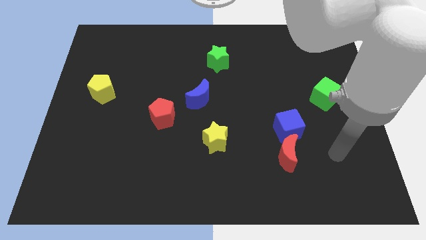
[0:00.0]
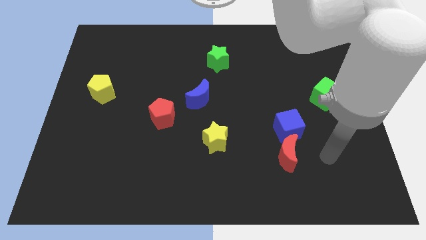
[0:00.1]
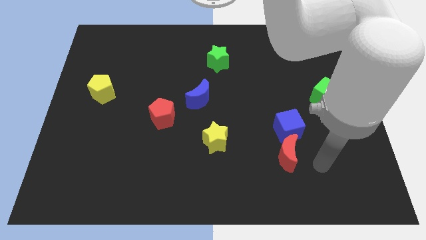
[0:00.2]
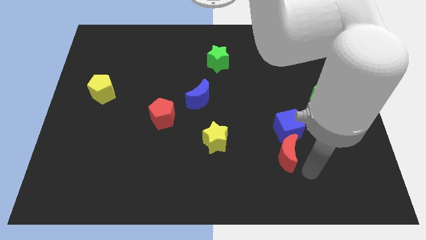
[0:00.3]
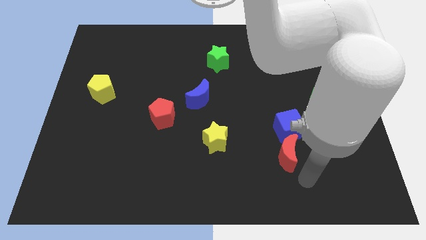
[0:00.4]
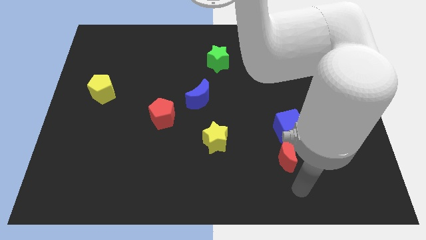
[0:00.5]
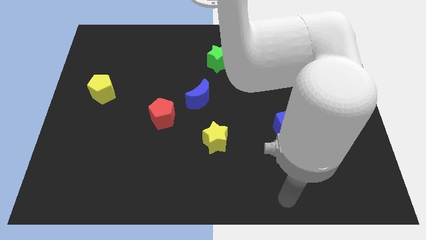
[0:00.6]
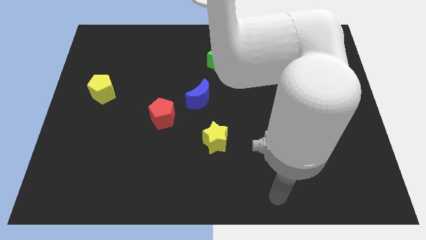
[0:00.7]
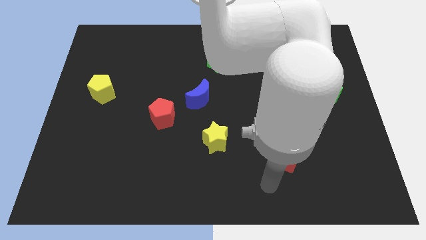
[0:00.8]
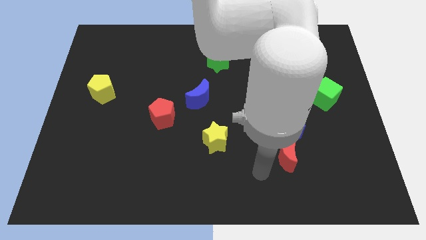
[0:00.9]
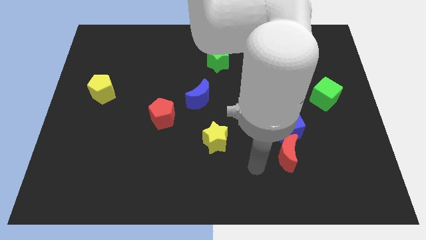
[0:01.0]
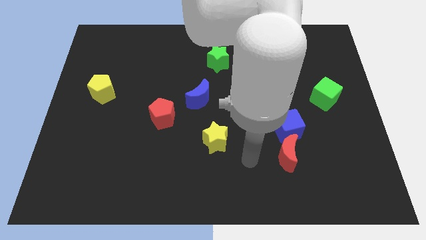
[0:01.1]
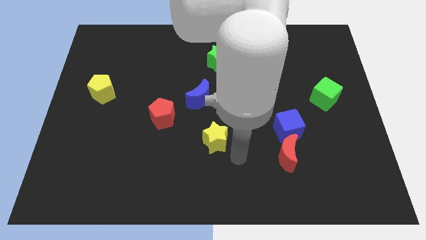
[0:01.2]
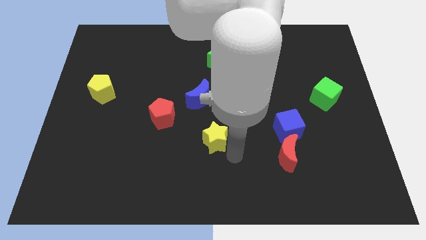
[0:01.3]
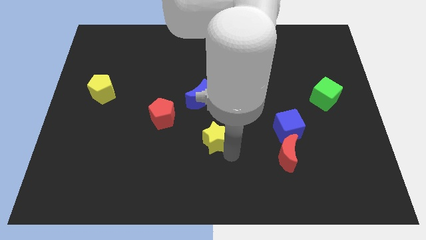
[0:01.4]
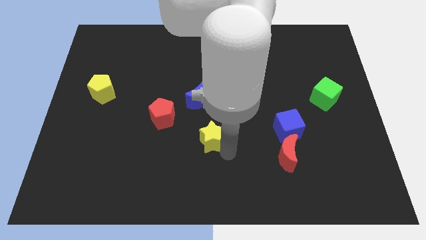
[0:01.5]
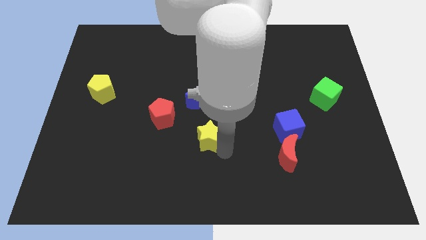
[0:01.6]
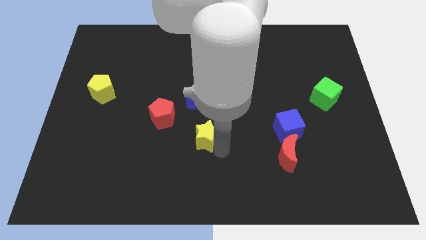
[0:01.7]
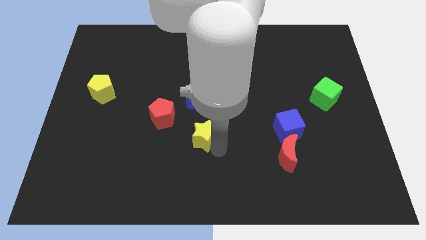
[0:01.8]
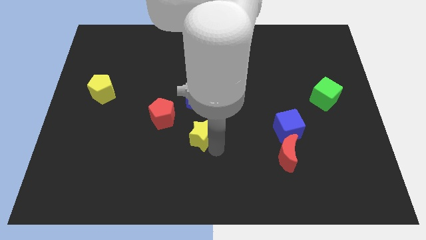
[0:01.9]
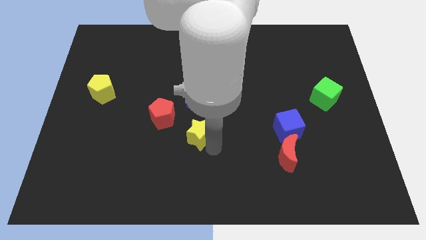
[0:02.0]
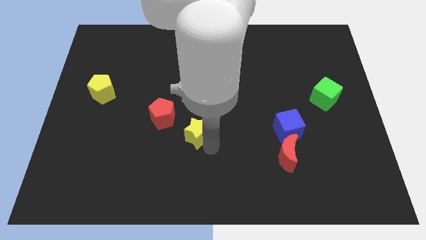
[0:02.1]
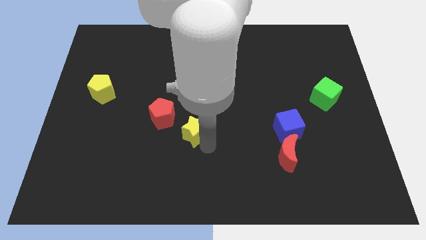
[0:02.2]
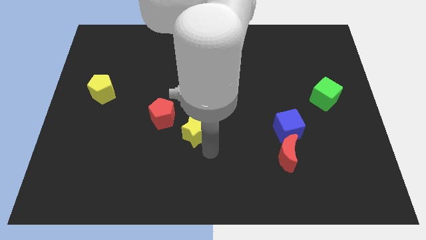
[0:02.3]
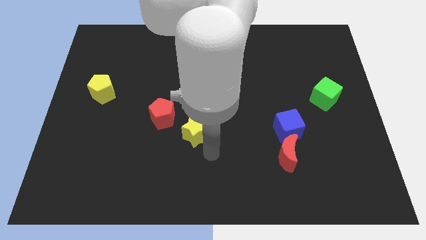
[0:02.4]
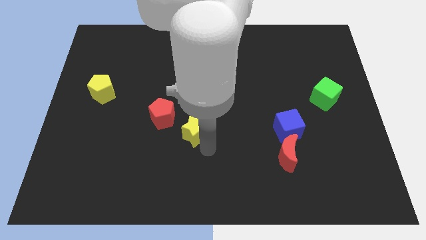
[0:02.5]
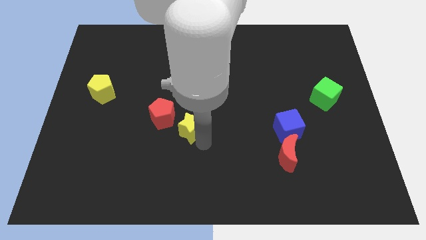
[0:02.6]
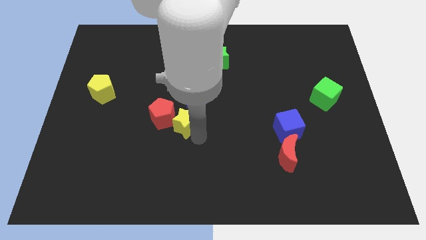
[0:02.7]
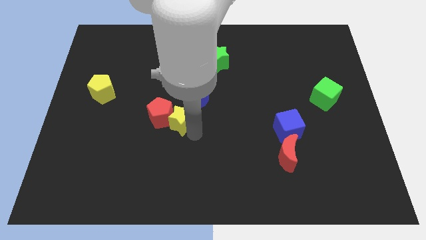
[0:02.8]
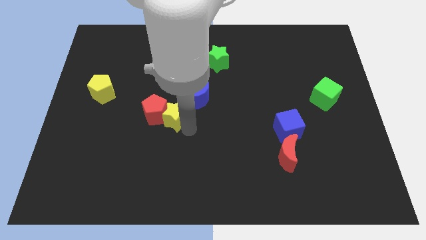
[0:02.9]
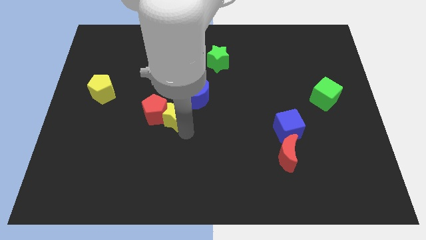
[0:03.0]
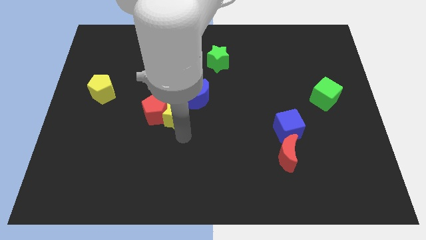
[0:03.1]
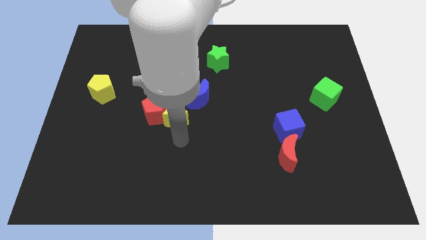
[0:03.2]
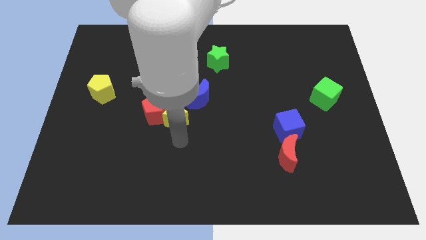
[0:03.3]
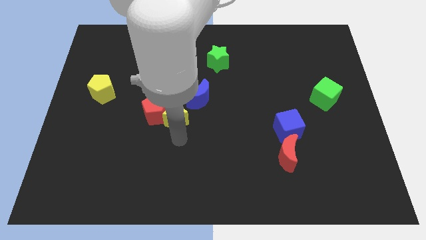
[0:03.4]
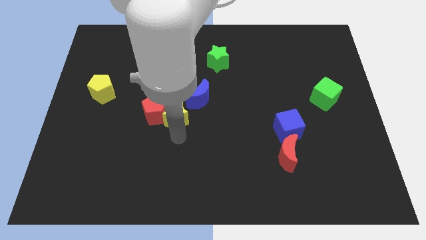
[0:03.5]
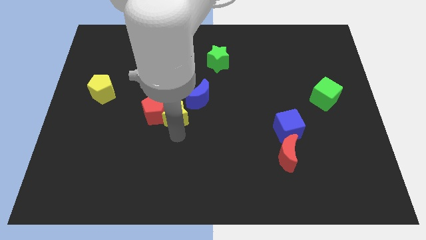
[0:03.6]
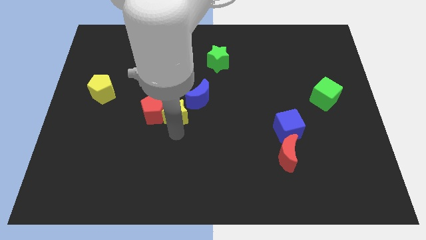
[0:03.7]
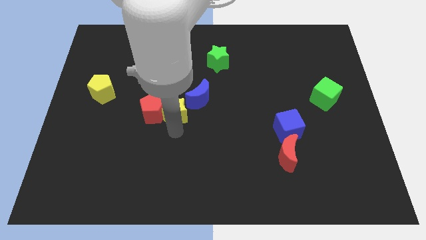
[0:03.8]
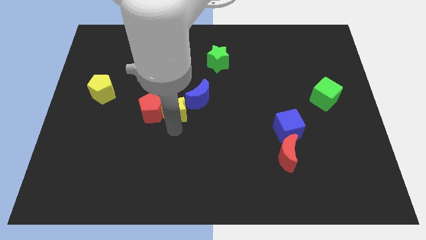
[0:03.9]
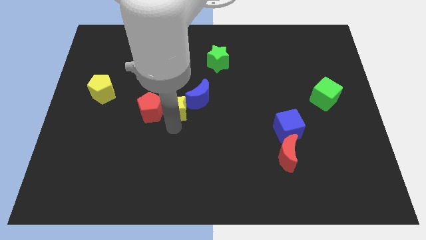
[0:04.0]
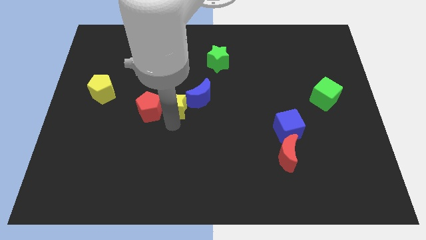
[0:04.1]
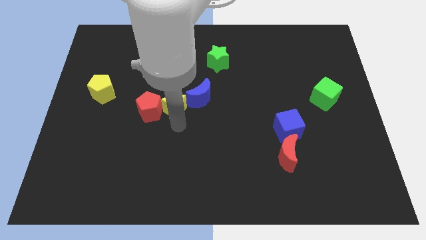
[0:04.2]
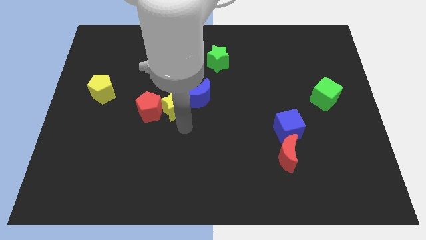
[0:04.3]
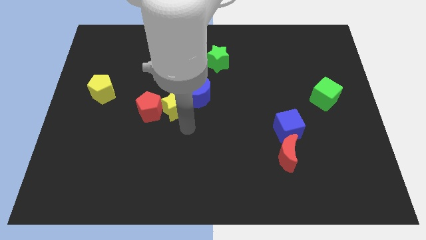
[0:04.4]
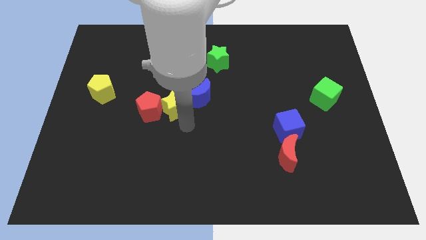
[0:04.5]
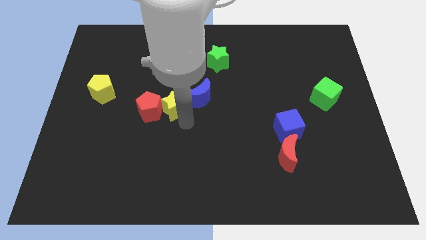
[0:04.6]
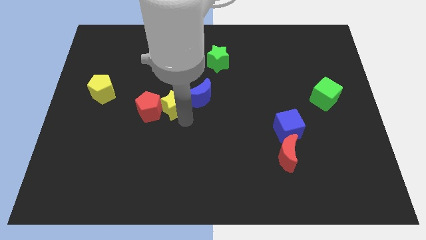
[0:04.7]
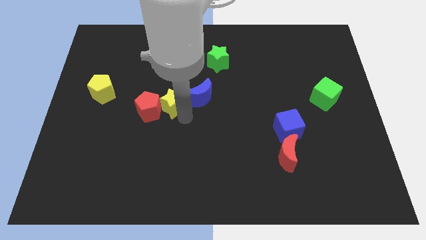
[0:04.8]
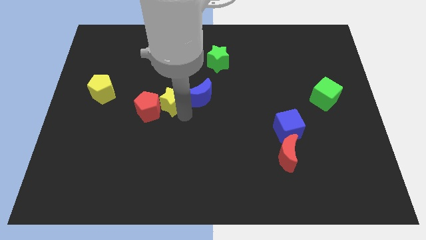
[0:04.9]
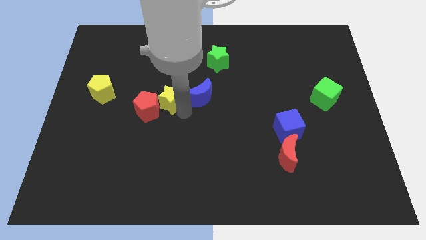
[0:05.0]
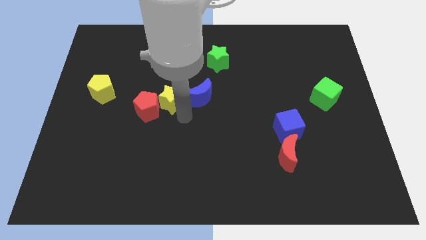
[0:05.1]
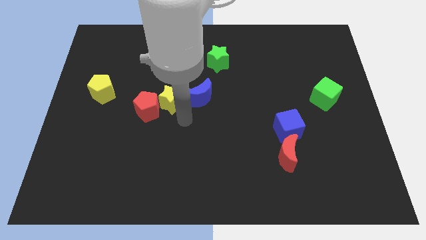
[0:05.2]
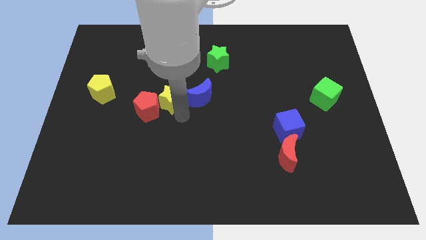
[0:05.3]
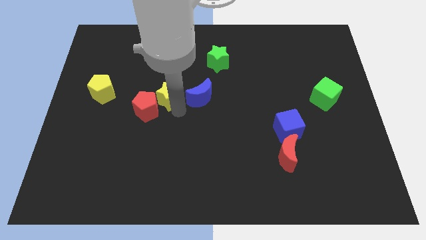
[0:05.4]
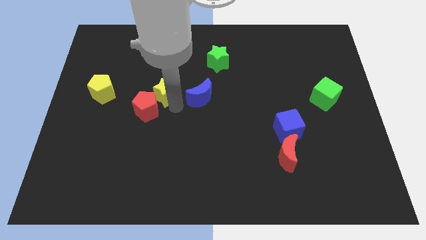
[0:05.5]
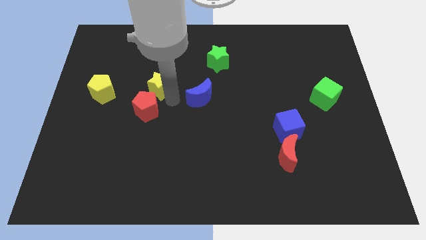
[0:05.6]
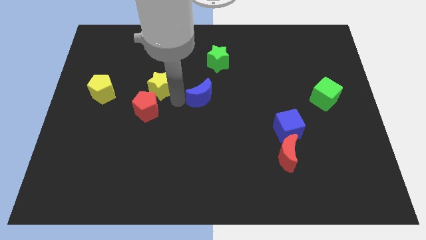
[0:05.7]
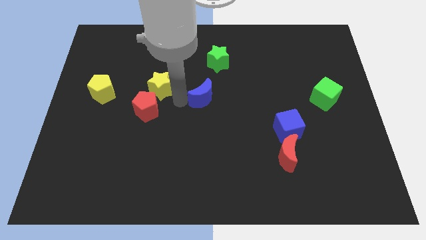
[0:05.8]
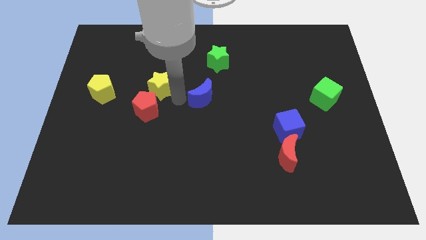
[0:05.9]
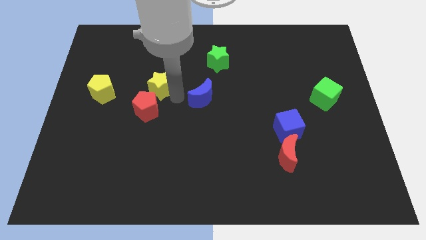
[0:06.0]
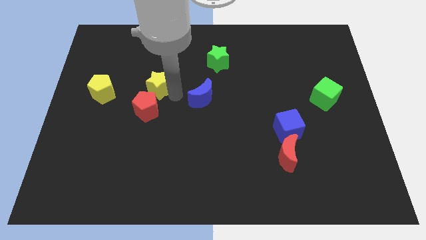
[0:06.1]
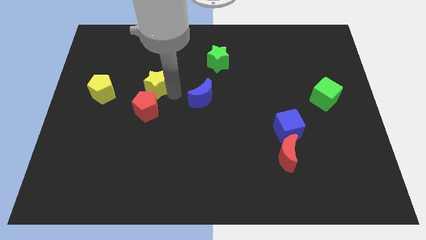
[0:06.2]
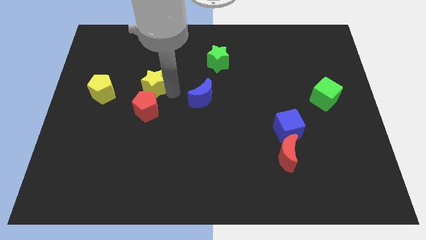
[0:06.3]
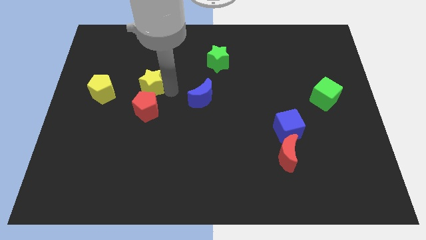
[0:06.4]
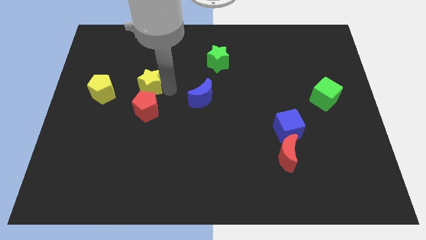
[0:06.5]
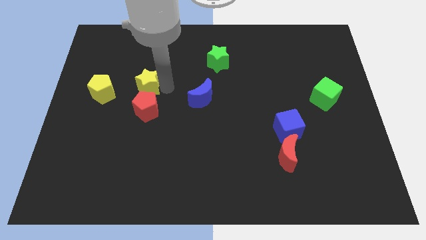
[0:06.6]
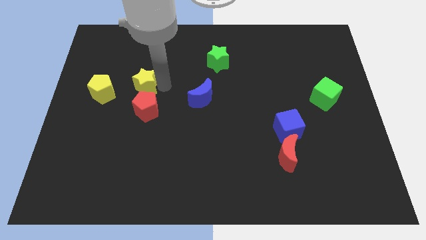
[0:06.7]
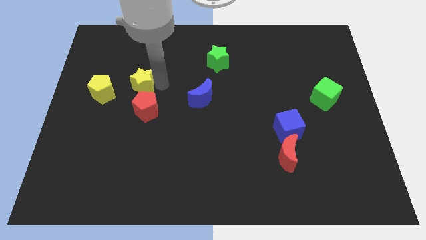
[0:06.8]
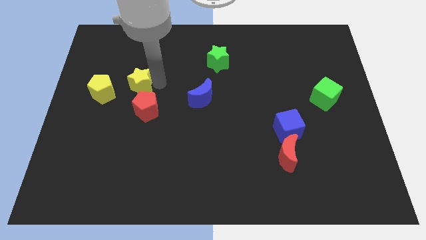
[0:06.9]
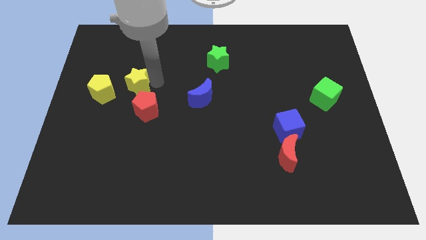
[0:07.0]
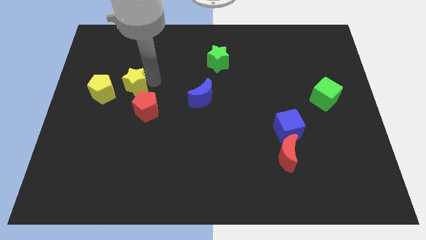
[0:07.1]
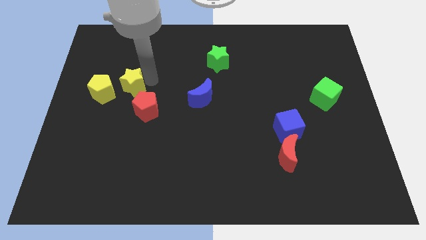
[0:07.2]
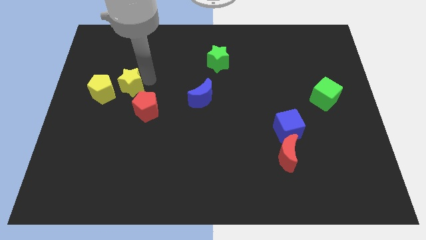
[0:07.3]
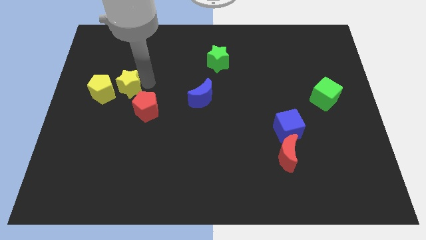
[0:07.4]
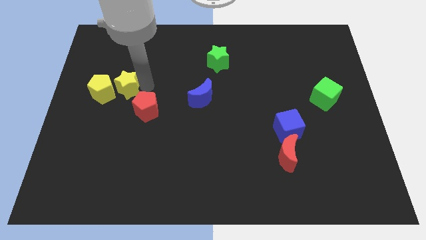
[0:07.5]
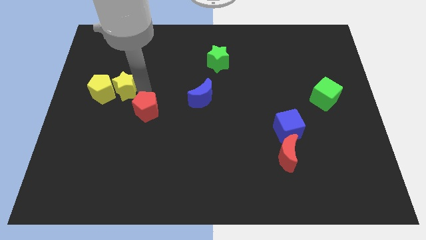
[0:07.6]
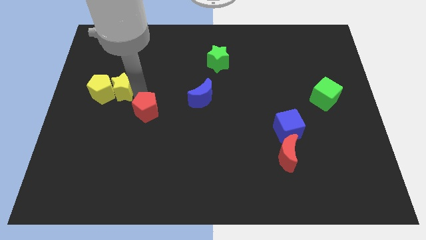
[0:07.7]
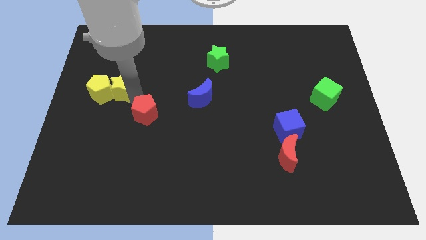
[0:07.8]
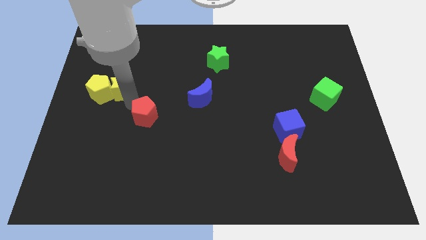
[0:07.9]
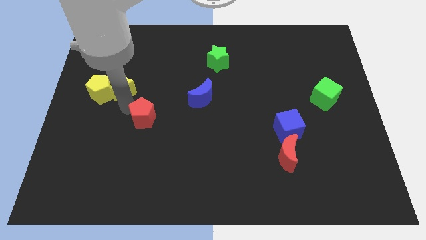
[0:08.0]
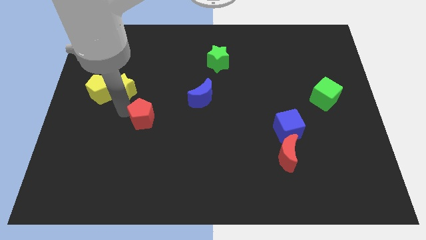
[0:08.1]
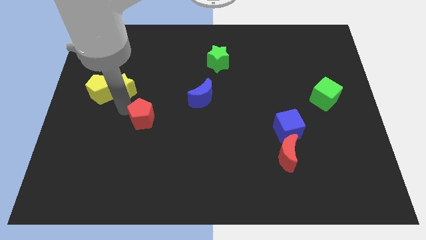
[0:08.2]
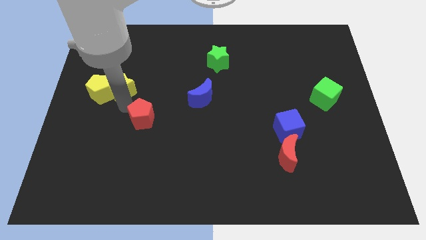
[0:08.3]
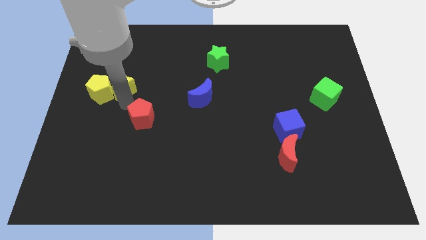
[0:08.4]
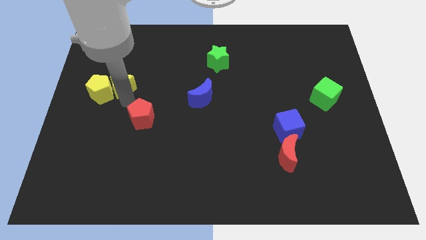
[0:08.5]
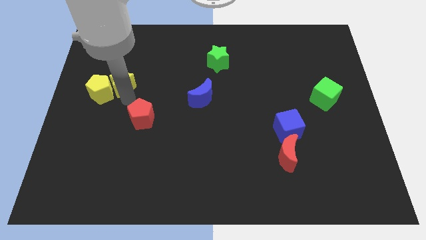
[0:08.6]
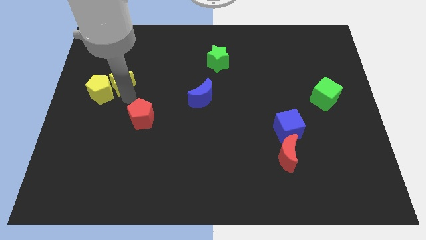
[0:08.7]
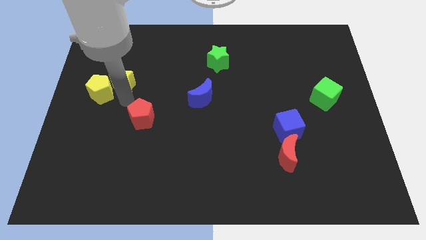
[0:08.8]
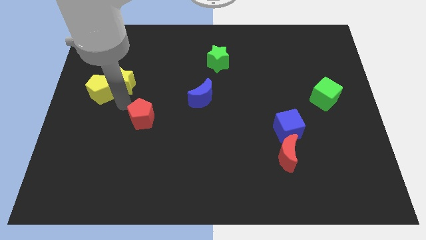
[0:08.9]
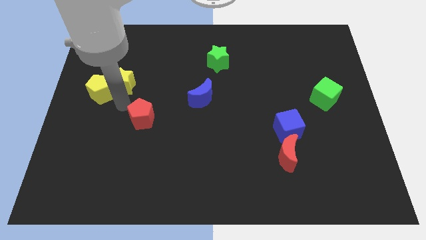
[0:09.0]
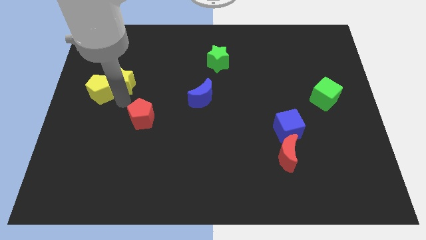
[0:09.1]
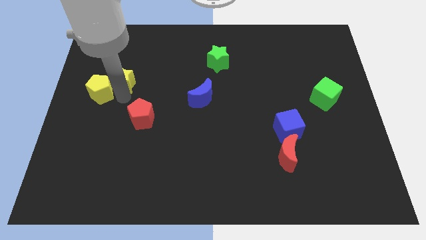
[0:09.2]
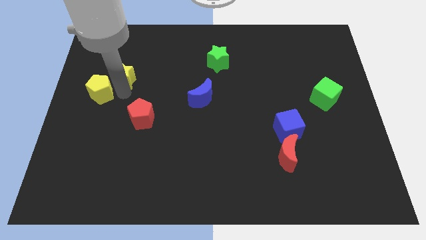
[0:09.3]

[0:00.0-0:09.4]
move the yellow star to the top of the yellow pentagon
